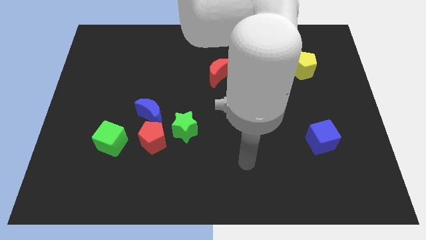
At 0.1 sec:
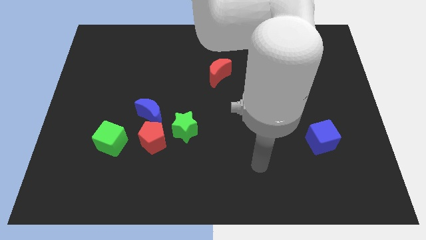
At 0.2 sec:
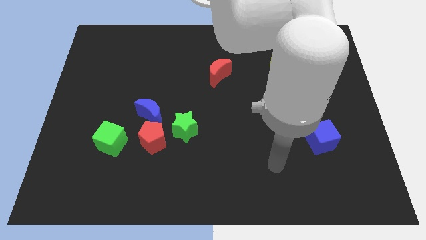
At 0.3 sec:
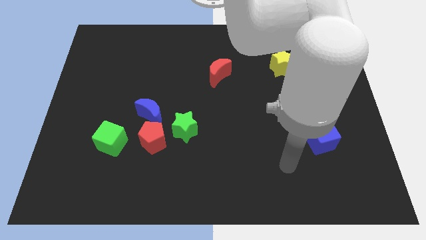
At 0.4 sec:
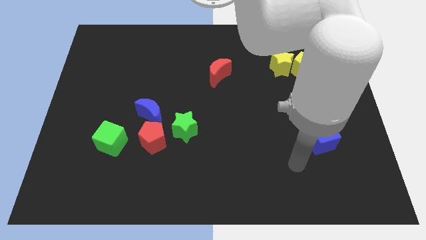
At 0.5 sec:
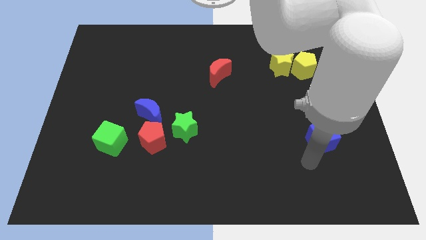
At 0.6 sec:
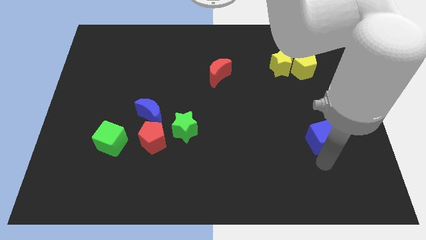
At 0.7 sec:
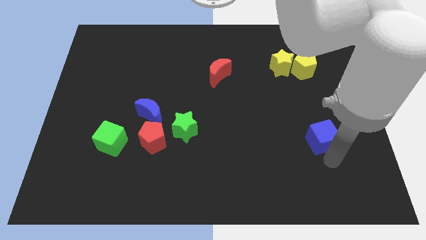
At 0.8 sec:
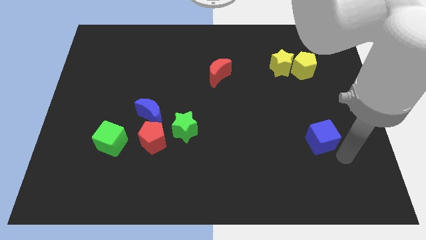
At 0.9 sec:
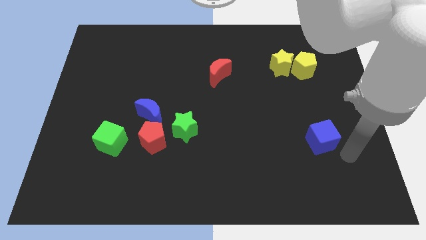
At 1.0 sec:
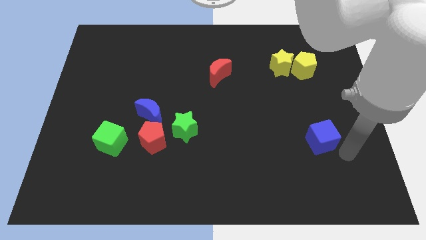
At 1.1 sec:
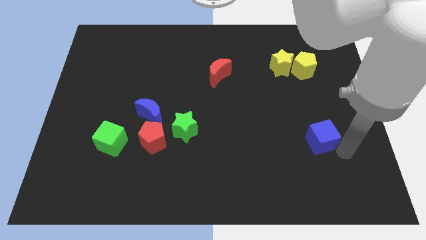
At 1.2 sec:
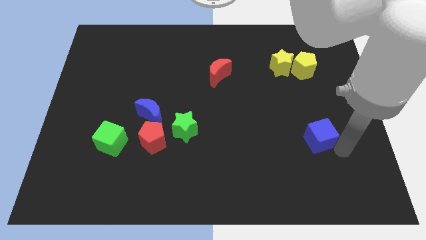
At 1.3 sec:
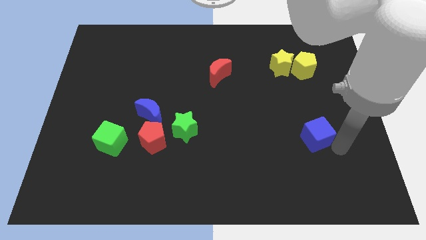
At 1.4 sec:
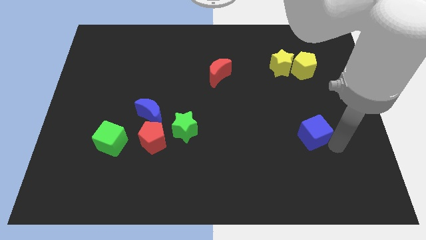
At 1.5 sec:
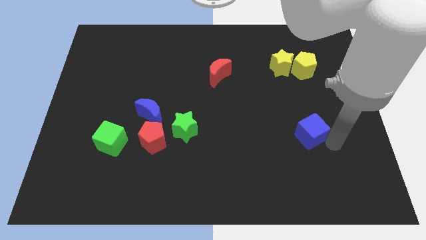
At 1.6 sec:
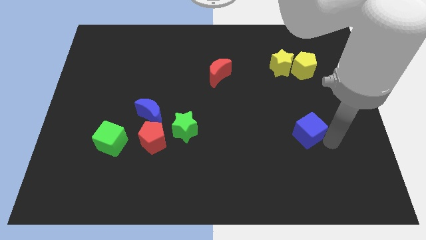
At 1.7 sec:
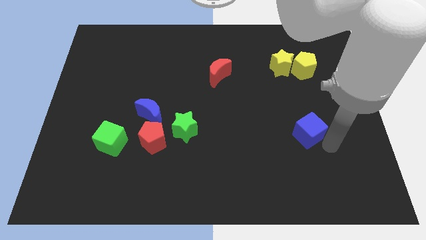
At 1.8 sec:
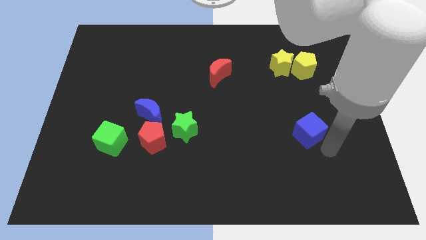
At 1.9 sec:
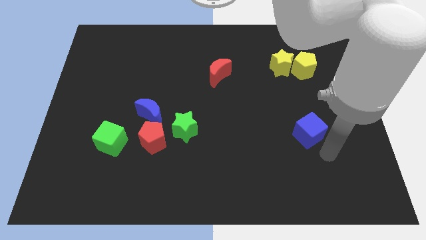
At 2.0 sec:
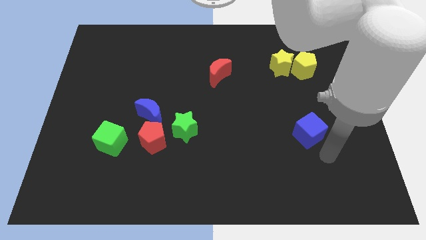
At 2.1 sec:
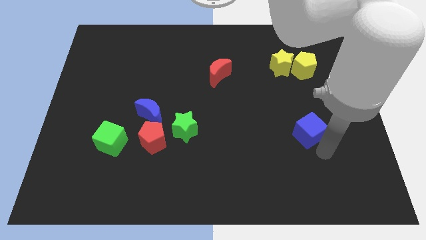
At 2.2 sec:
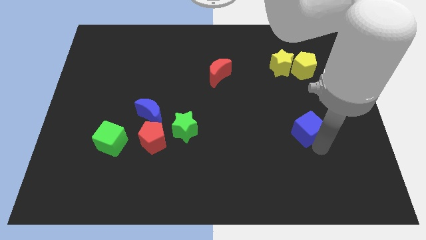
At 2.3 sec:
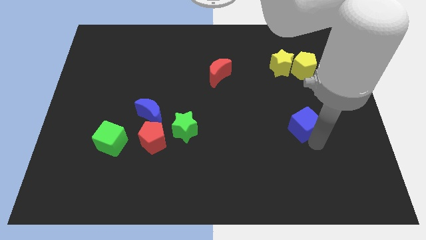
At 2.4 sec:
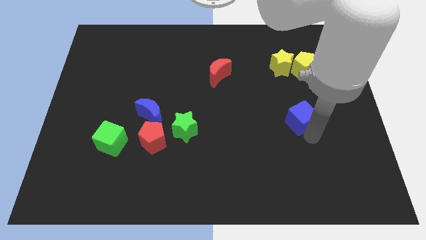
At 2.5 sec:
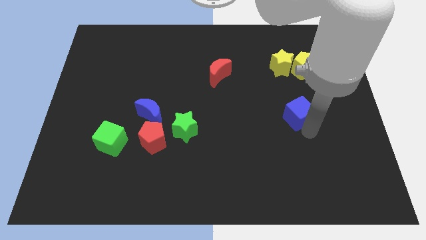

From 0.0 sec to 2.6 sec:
slide the blue cube upwards and then to the left somewhat

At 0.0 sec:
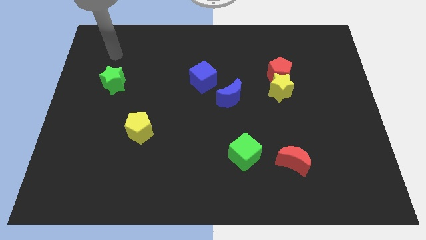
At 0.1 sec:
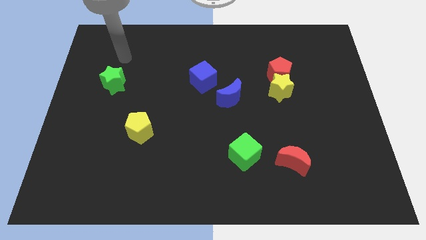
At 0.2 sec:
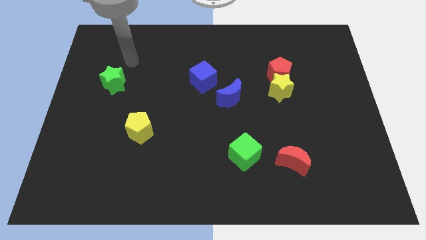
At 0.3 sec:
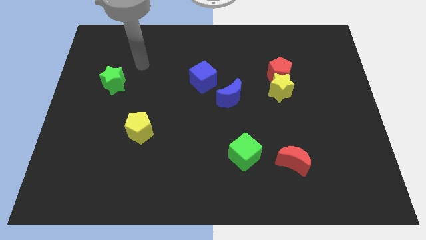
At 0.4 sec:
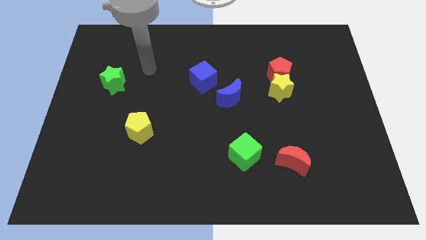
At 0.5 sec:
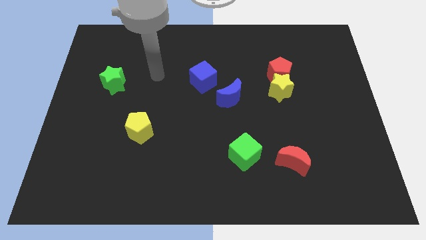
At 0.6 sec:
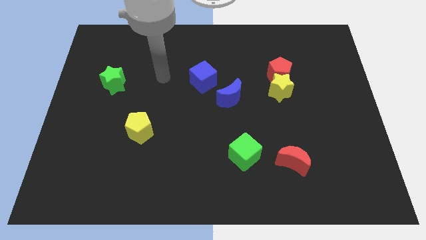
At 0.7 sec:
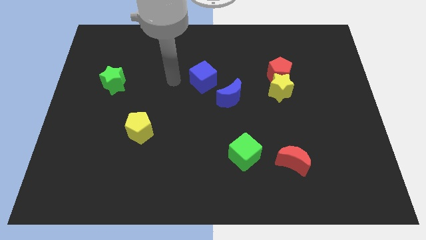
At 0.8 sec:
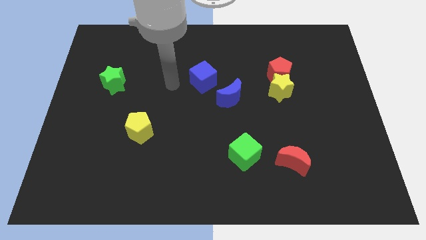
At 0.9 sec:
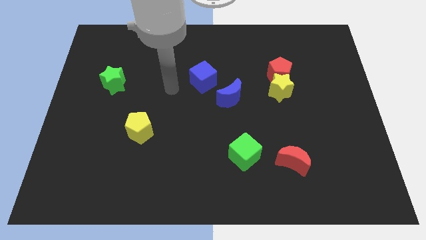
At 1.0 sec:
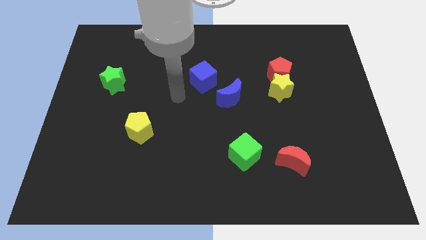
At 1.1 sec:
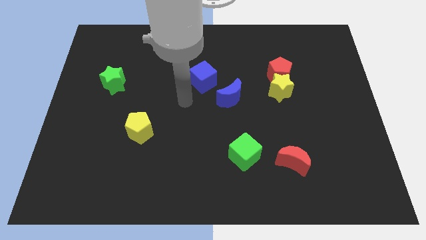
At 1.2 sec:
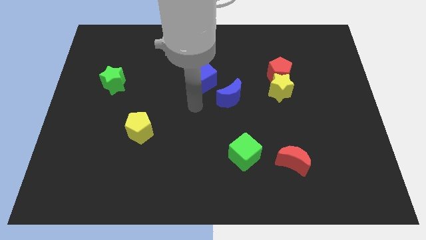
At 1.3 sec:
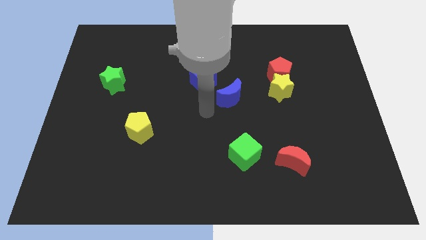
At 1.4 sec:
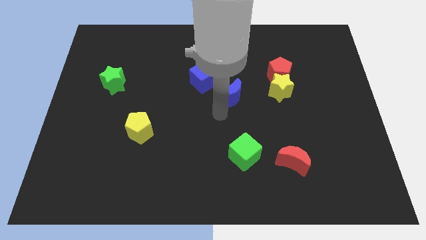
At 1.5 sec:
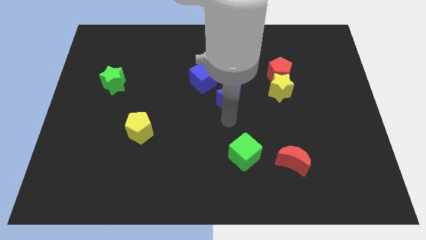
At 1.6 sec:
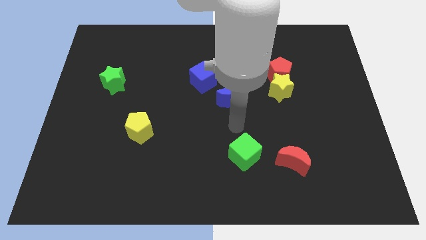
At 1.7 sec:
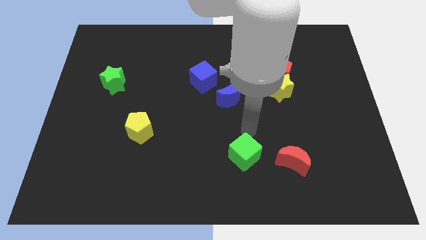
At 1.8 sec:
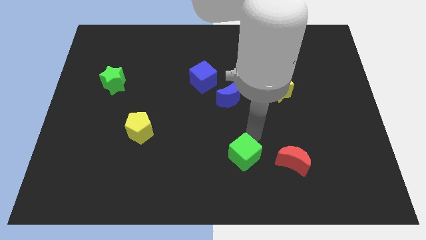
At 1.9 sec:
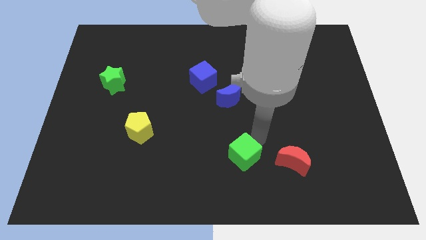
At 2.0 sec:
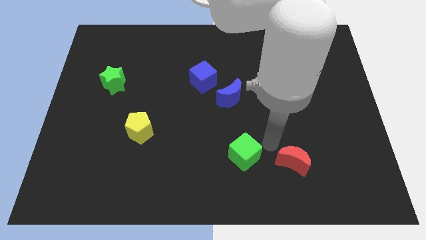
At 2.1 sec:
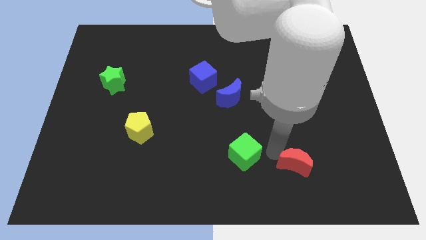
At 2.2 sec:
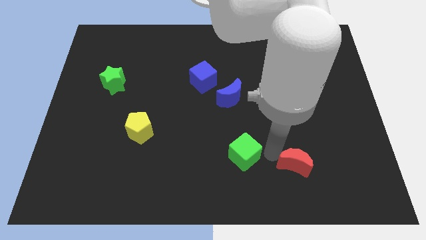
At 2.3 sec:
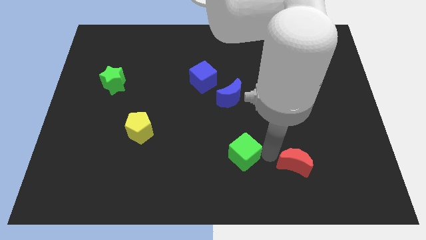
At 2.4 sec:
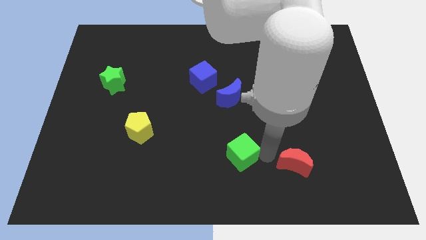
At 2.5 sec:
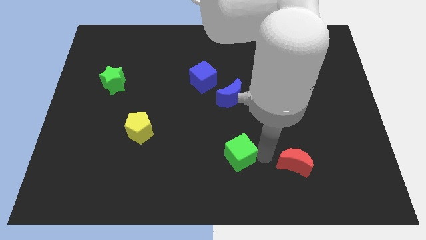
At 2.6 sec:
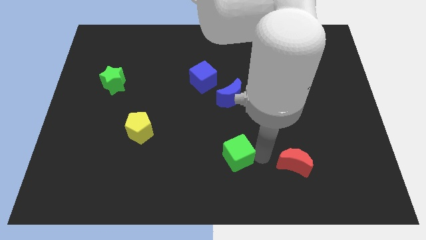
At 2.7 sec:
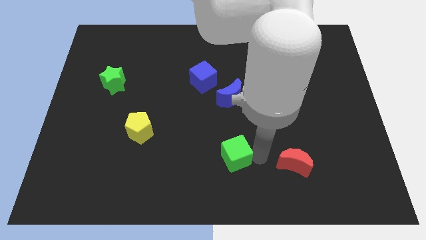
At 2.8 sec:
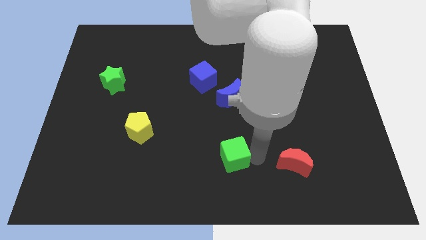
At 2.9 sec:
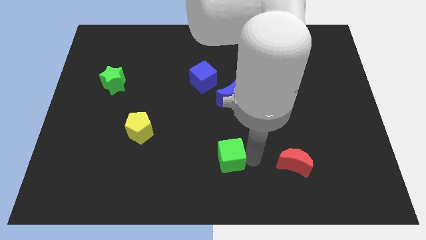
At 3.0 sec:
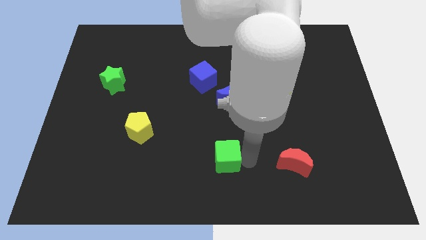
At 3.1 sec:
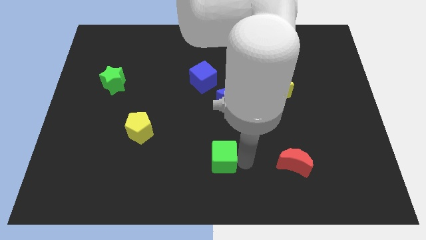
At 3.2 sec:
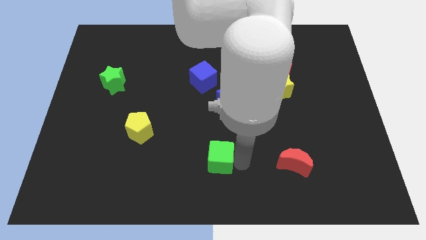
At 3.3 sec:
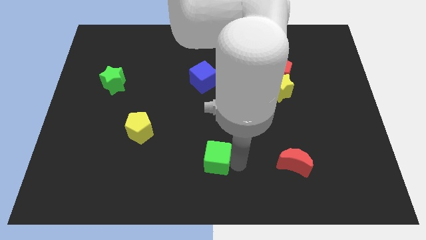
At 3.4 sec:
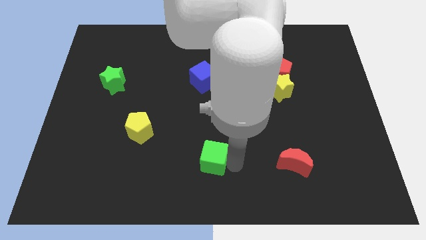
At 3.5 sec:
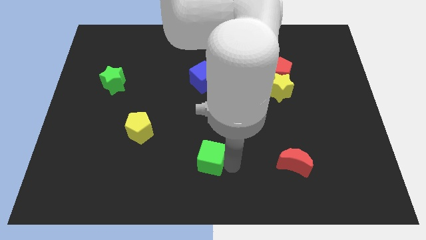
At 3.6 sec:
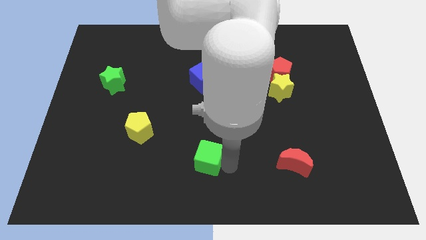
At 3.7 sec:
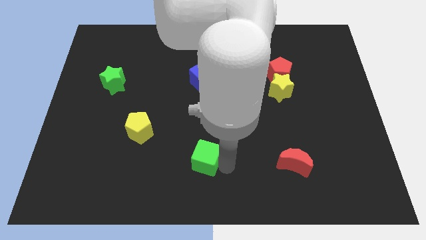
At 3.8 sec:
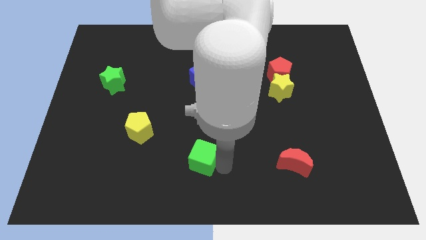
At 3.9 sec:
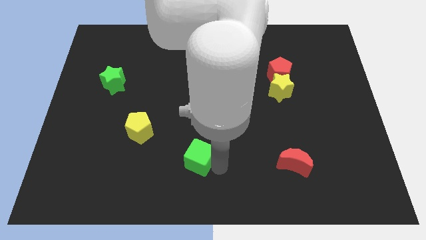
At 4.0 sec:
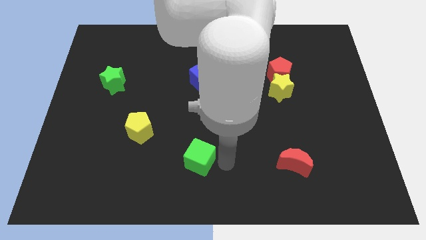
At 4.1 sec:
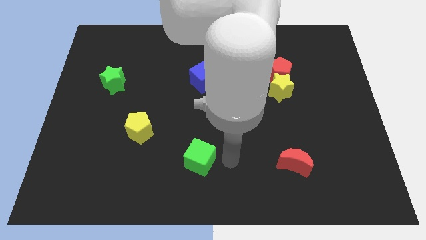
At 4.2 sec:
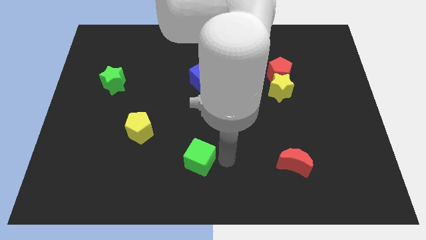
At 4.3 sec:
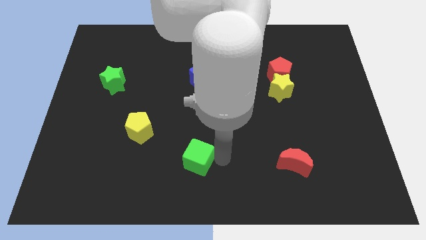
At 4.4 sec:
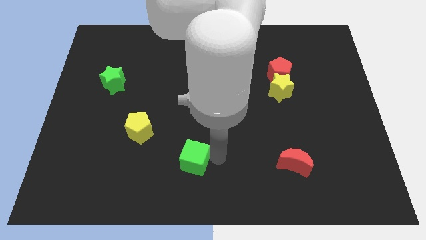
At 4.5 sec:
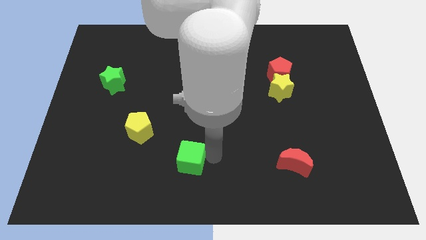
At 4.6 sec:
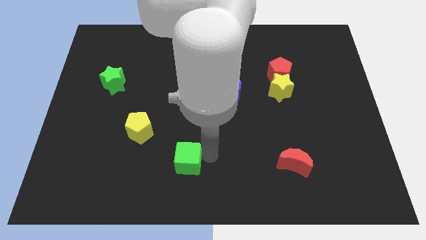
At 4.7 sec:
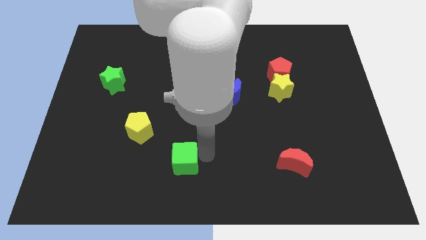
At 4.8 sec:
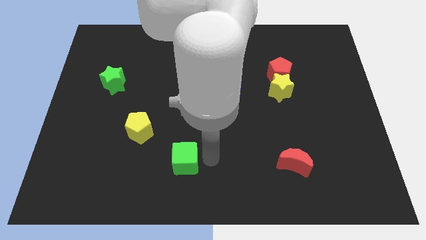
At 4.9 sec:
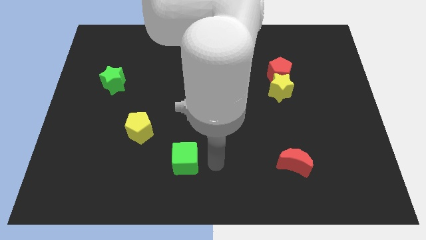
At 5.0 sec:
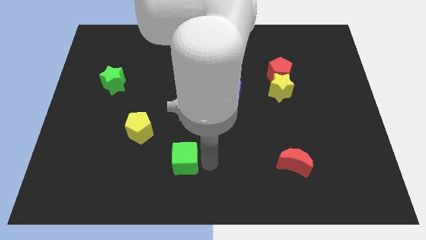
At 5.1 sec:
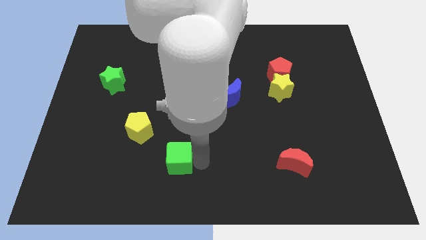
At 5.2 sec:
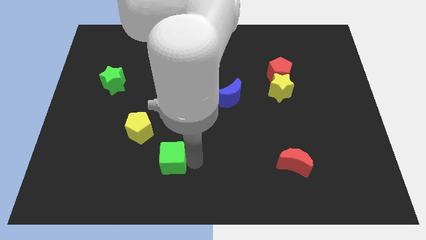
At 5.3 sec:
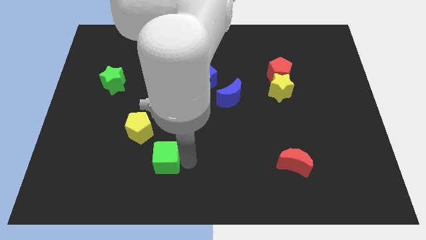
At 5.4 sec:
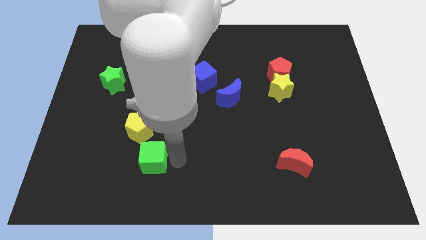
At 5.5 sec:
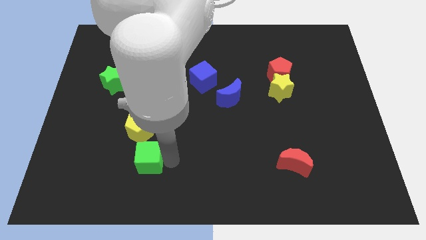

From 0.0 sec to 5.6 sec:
slide the green cube left
